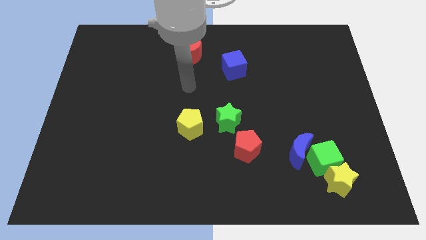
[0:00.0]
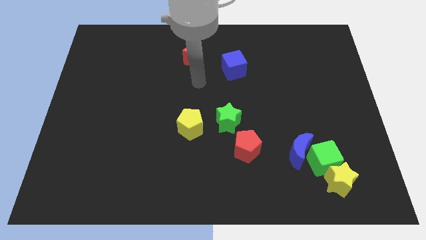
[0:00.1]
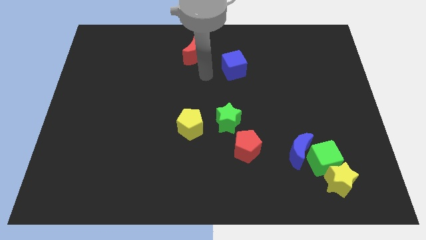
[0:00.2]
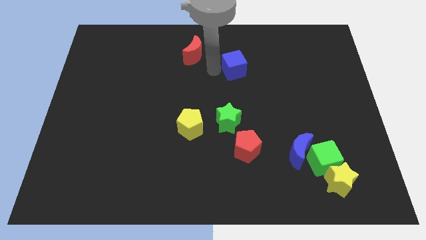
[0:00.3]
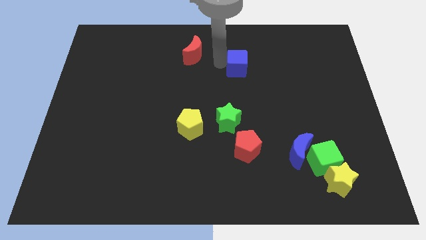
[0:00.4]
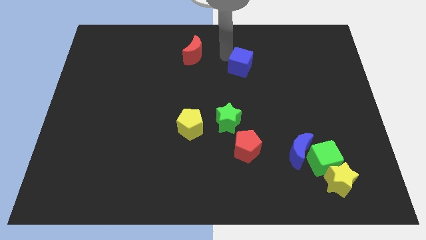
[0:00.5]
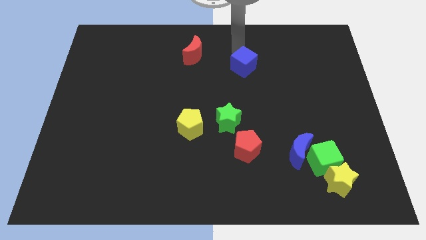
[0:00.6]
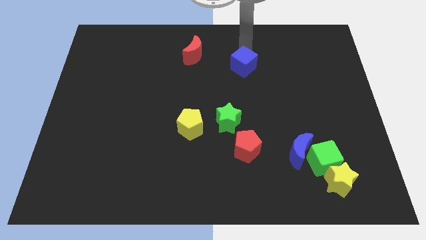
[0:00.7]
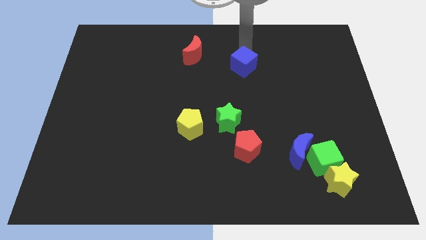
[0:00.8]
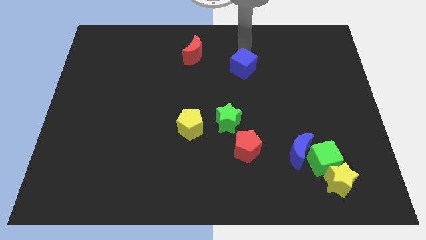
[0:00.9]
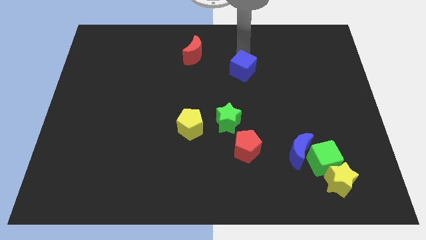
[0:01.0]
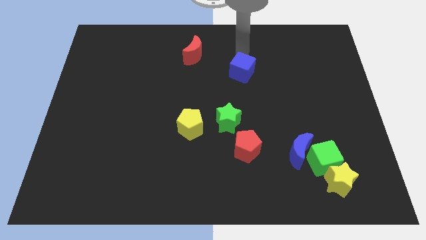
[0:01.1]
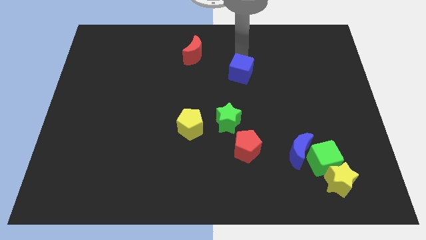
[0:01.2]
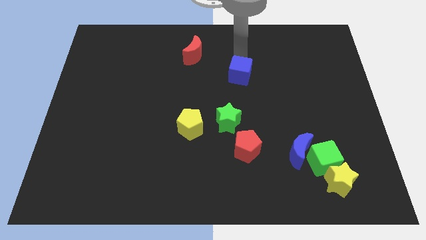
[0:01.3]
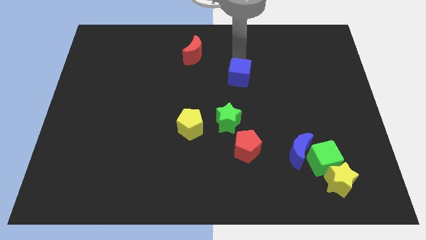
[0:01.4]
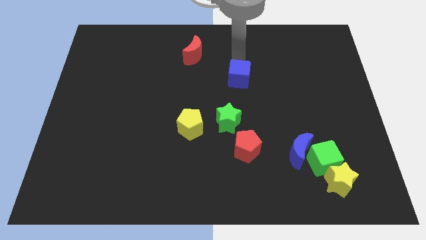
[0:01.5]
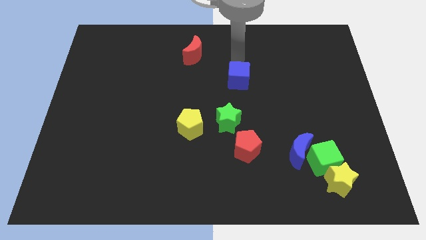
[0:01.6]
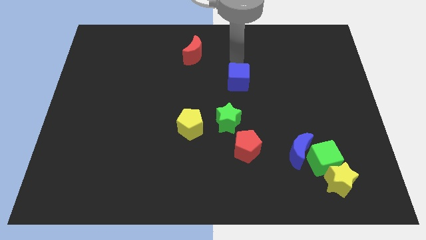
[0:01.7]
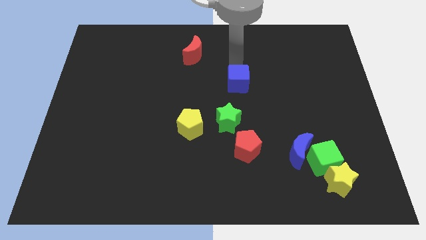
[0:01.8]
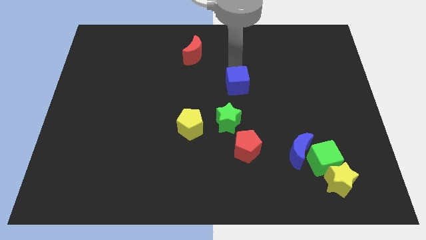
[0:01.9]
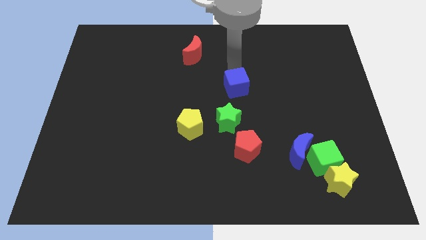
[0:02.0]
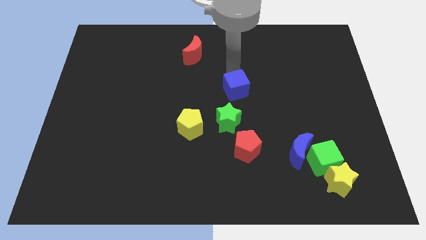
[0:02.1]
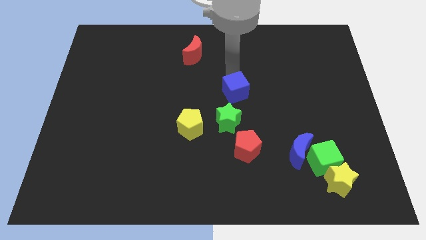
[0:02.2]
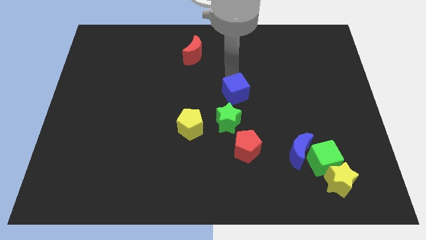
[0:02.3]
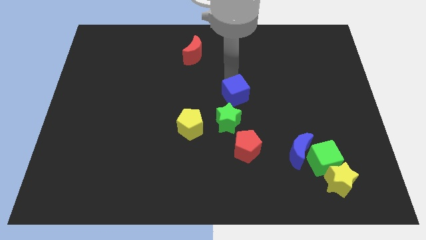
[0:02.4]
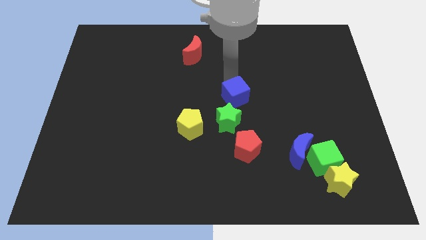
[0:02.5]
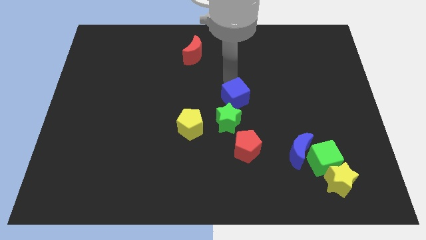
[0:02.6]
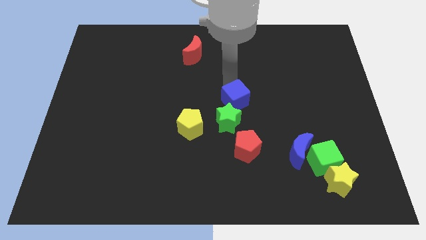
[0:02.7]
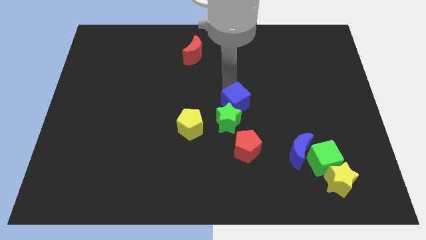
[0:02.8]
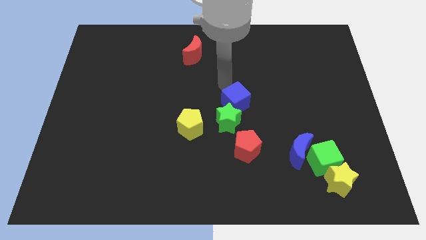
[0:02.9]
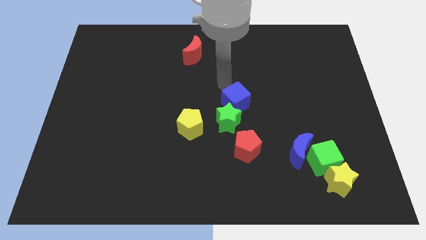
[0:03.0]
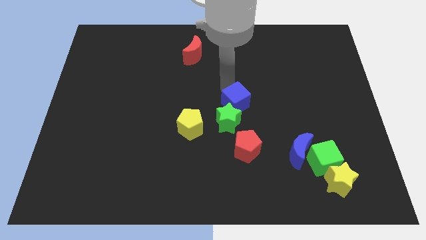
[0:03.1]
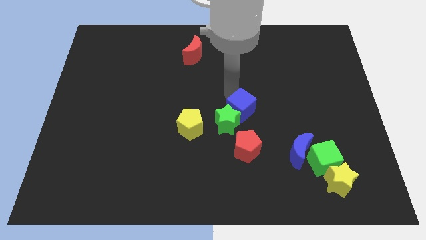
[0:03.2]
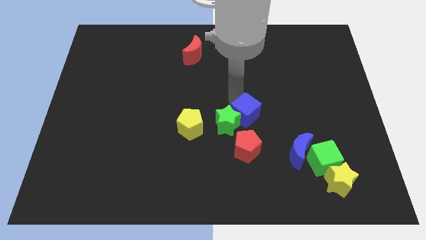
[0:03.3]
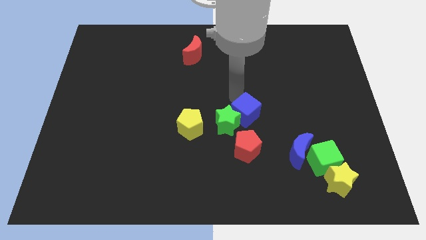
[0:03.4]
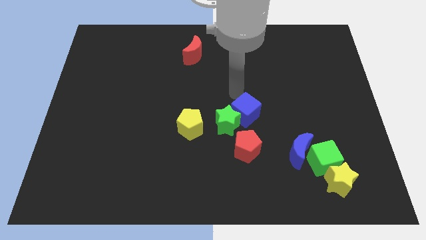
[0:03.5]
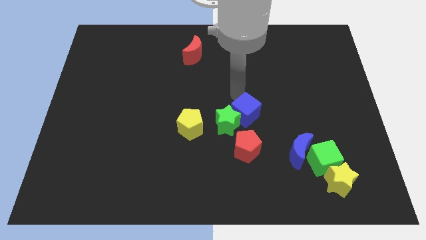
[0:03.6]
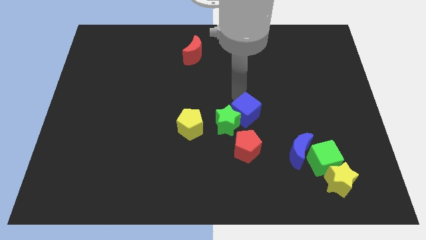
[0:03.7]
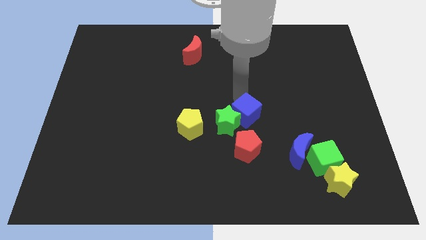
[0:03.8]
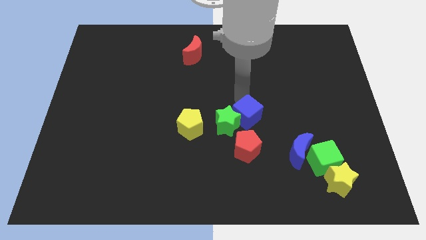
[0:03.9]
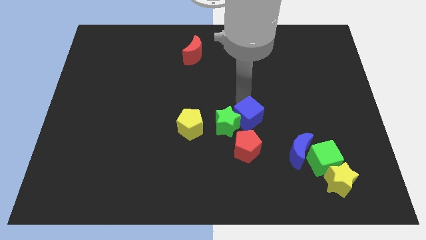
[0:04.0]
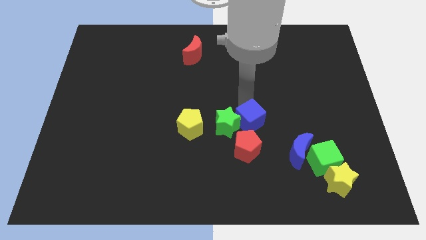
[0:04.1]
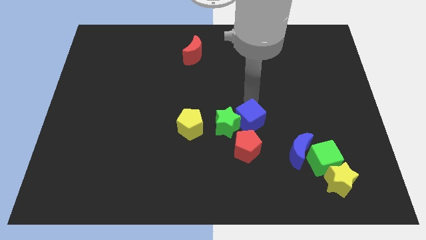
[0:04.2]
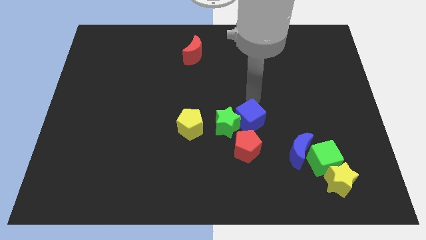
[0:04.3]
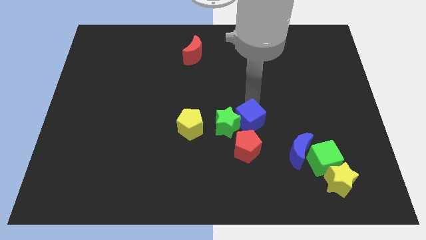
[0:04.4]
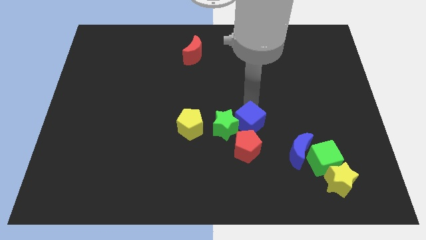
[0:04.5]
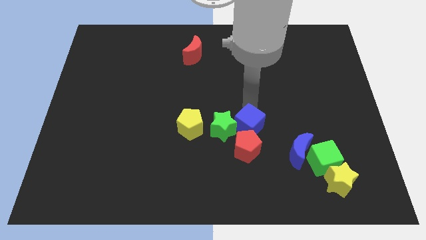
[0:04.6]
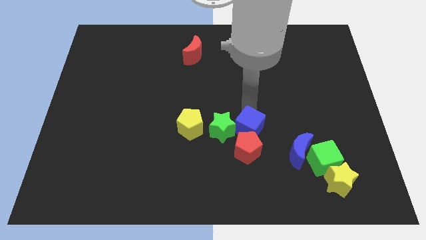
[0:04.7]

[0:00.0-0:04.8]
push the blue cube to the red pentagon

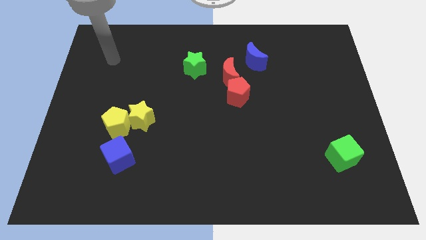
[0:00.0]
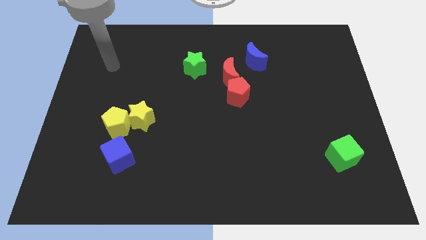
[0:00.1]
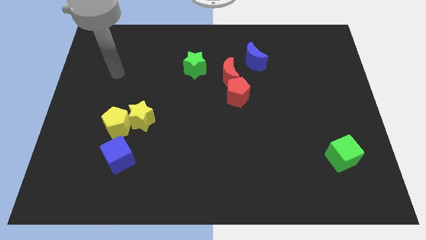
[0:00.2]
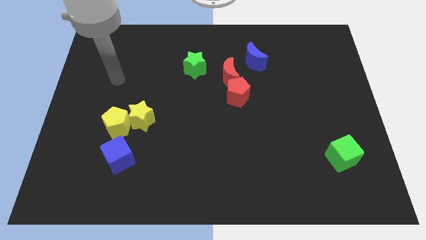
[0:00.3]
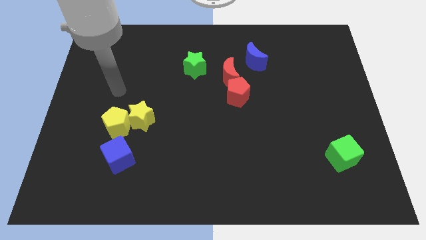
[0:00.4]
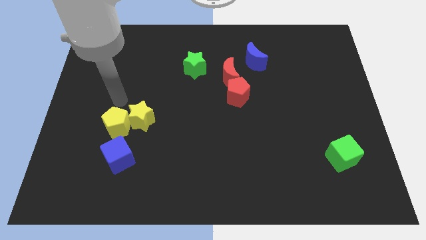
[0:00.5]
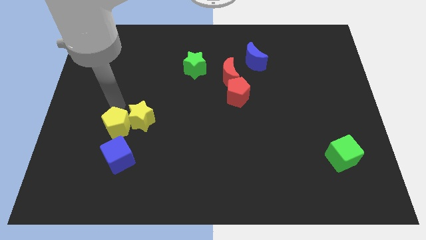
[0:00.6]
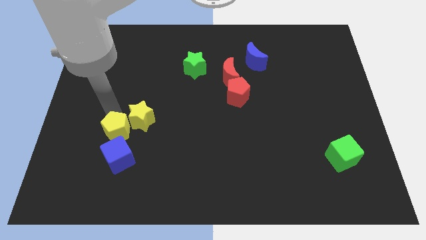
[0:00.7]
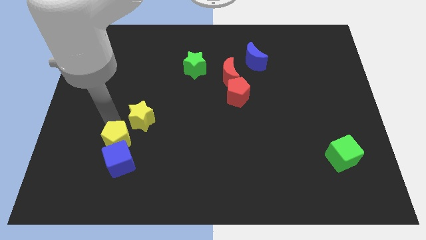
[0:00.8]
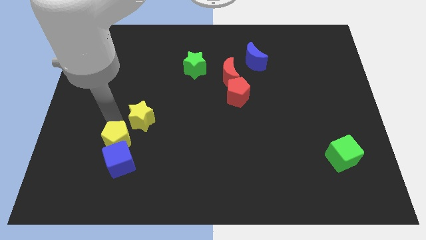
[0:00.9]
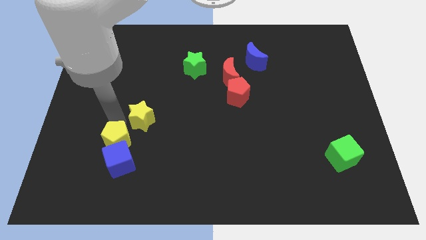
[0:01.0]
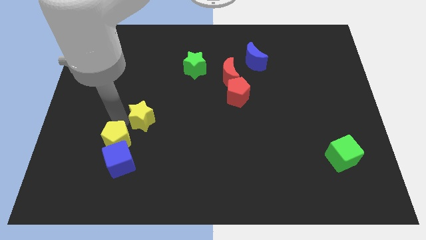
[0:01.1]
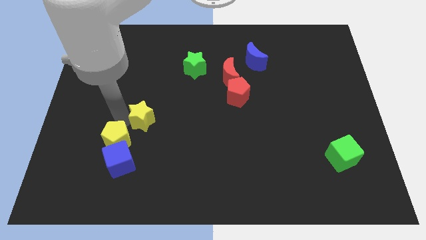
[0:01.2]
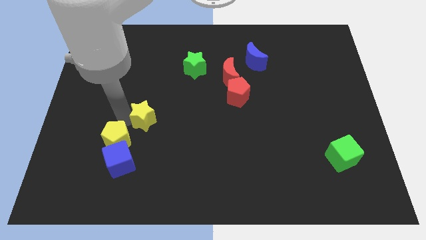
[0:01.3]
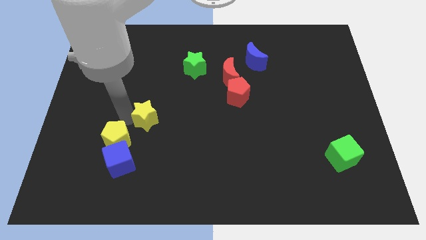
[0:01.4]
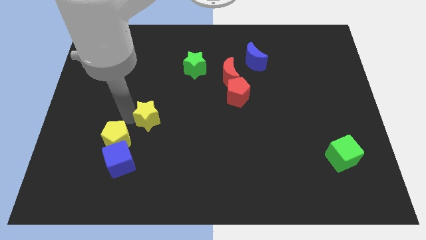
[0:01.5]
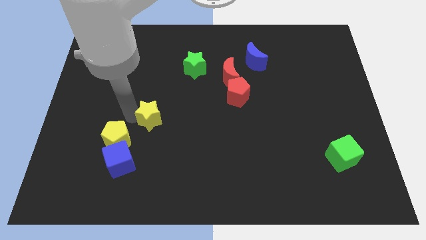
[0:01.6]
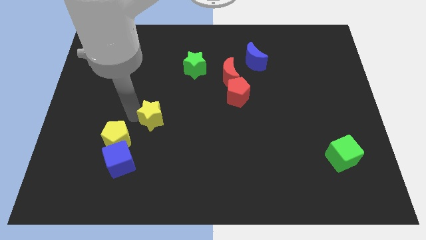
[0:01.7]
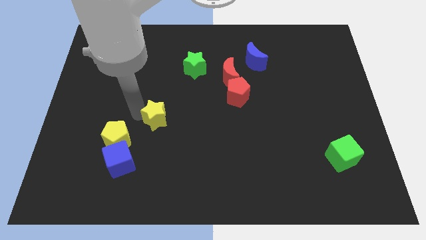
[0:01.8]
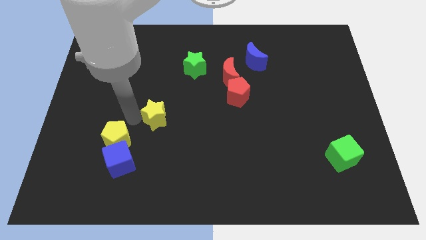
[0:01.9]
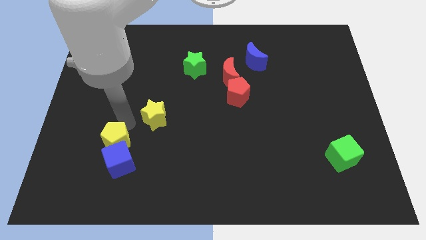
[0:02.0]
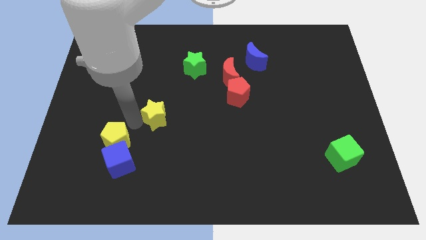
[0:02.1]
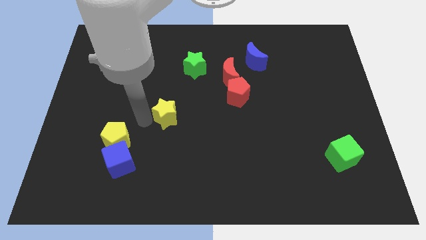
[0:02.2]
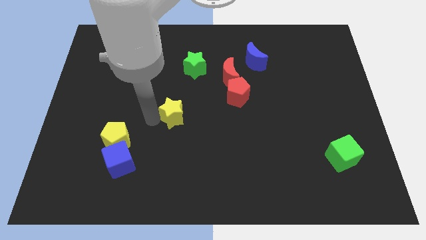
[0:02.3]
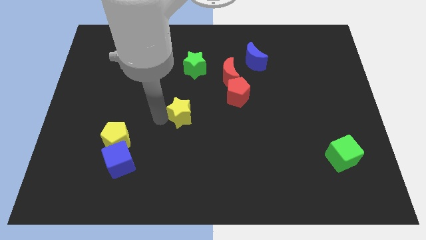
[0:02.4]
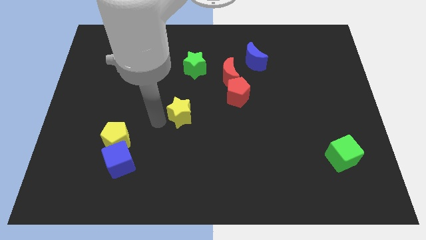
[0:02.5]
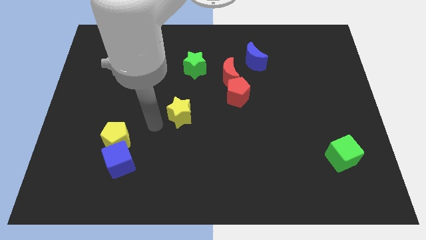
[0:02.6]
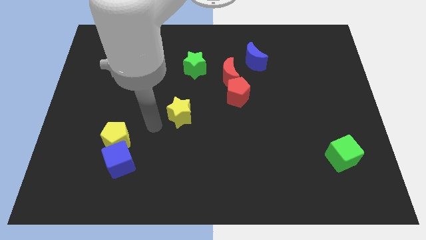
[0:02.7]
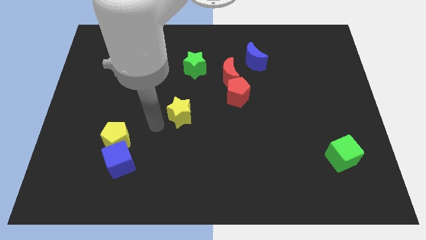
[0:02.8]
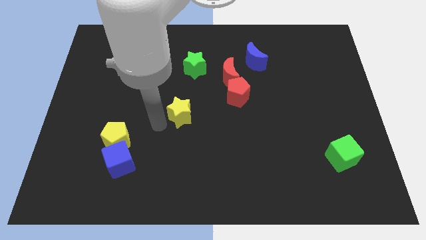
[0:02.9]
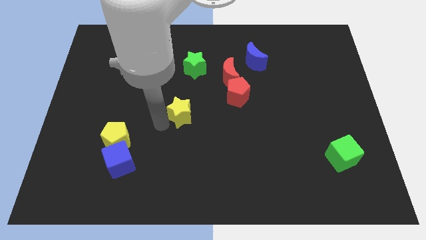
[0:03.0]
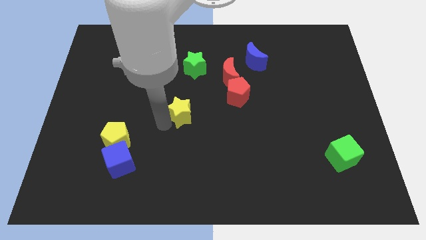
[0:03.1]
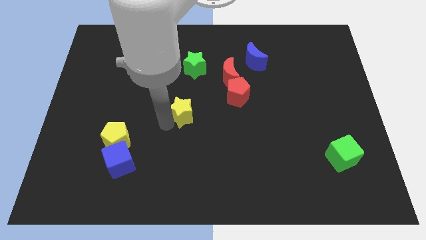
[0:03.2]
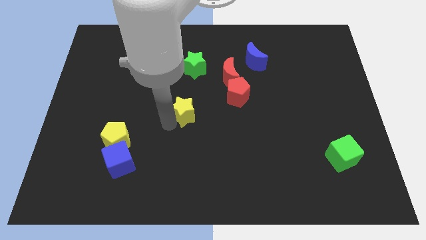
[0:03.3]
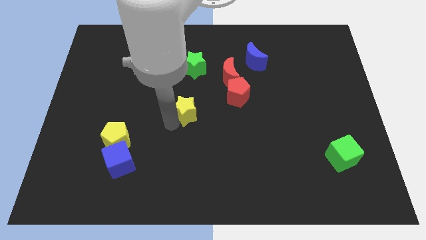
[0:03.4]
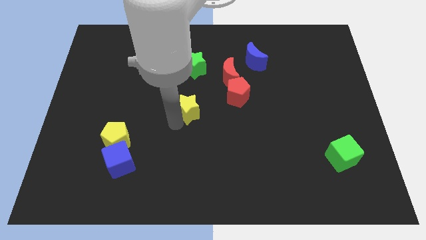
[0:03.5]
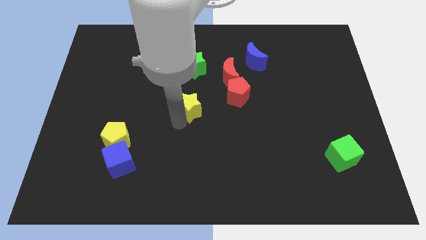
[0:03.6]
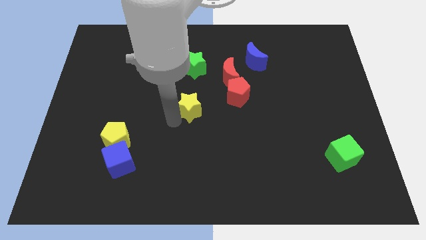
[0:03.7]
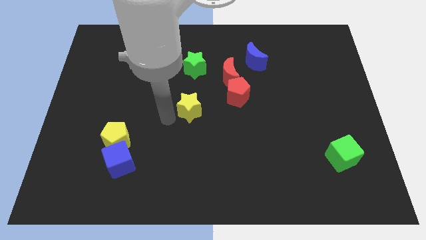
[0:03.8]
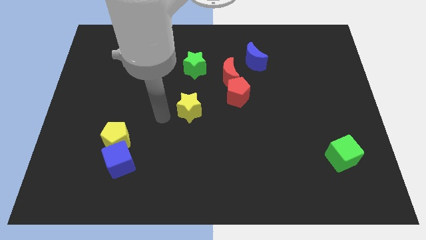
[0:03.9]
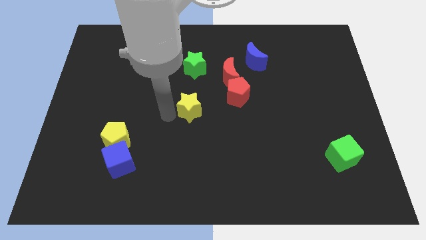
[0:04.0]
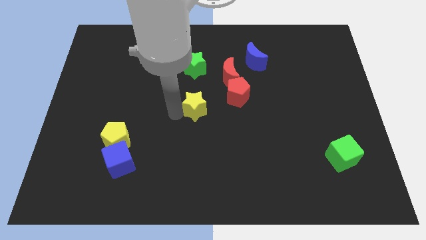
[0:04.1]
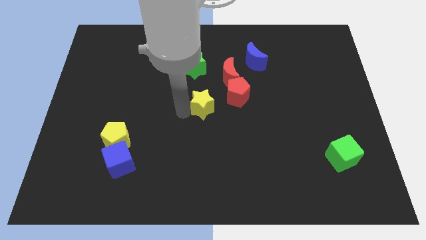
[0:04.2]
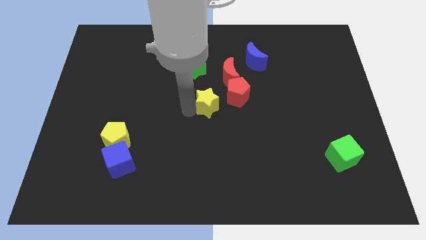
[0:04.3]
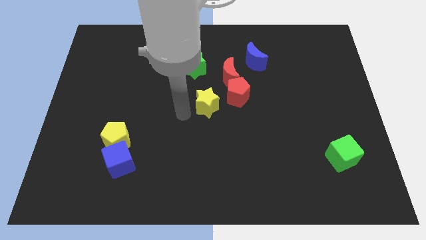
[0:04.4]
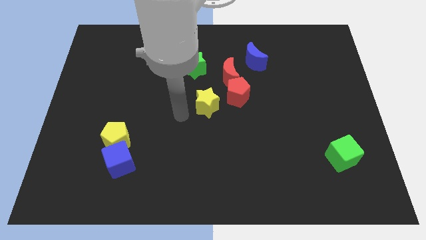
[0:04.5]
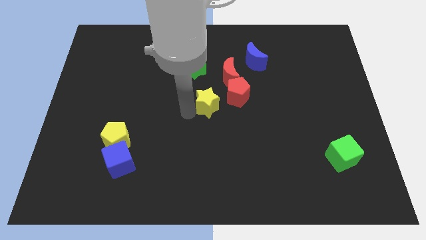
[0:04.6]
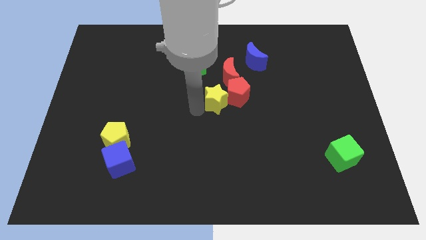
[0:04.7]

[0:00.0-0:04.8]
move the yellow star to the red pentagon
